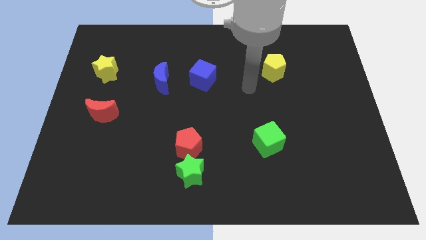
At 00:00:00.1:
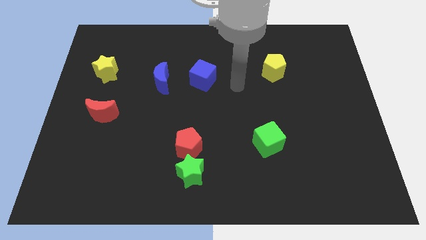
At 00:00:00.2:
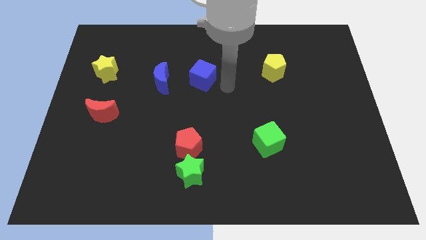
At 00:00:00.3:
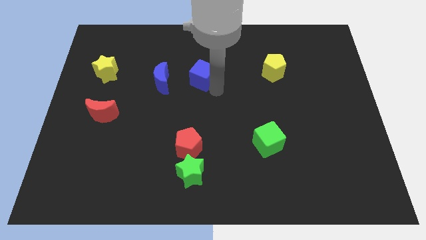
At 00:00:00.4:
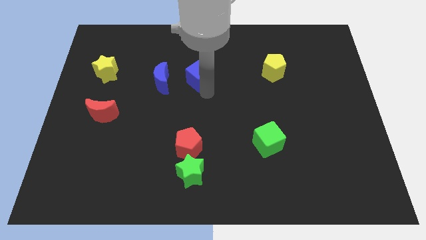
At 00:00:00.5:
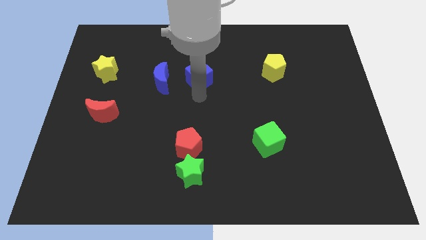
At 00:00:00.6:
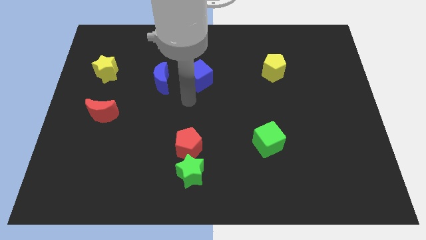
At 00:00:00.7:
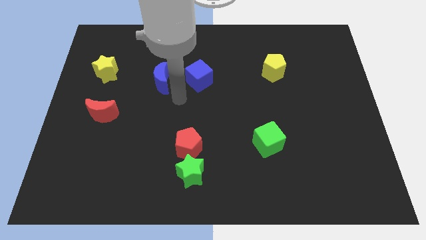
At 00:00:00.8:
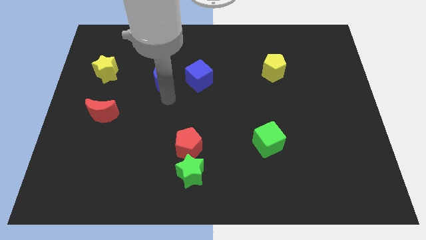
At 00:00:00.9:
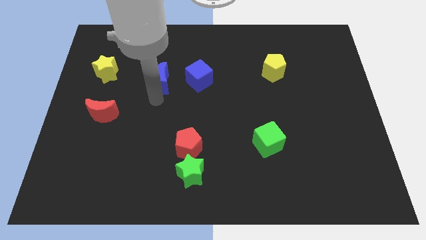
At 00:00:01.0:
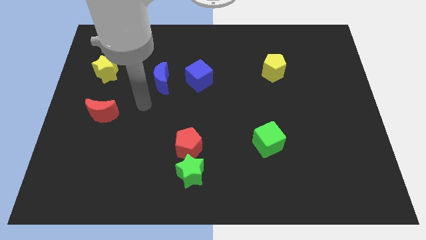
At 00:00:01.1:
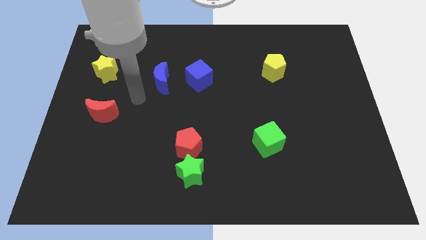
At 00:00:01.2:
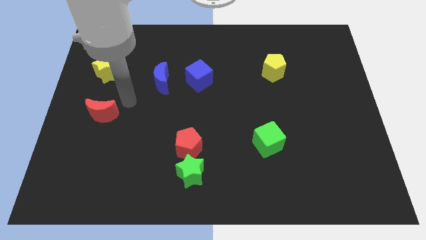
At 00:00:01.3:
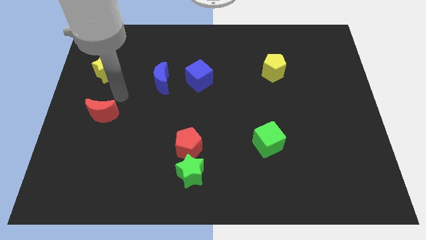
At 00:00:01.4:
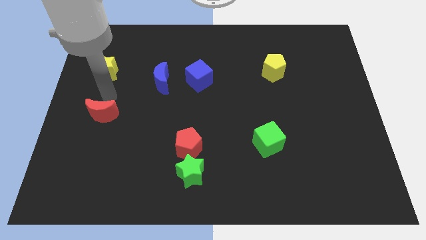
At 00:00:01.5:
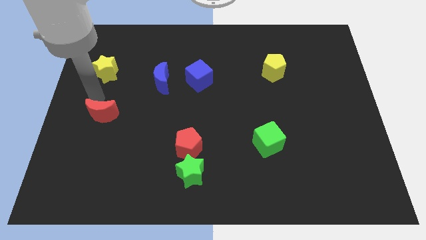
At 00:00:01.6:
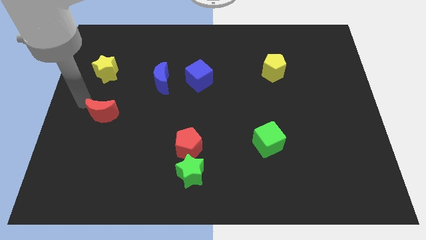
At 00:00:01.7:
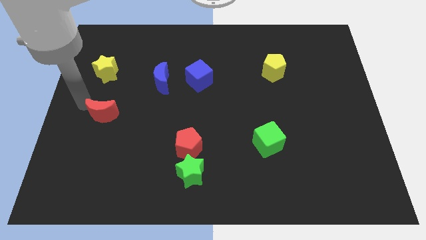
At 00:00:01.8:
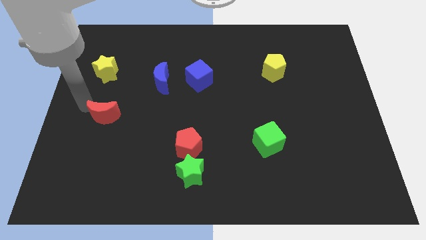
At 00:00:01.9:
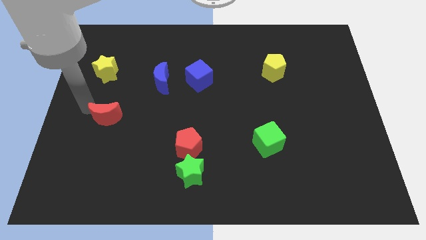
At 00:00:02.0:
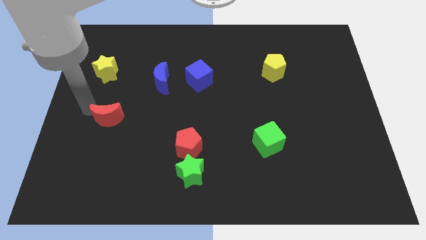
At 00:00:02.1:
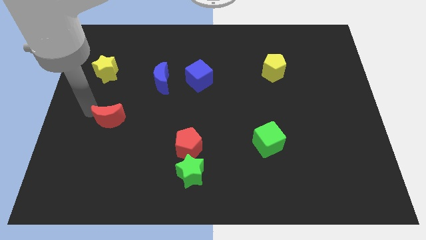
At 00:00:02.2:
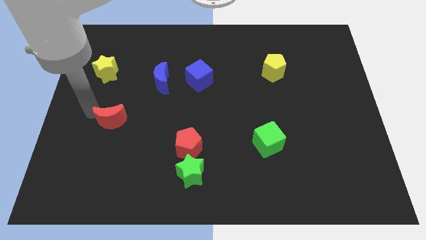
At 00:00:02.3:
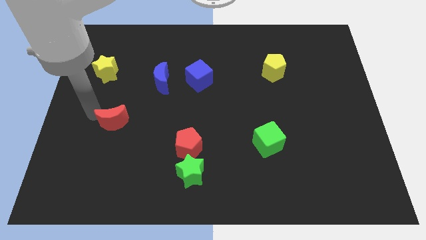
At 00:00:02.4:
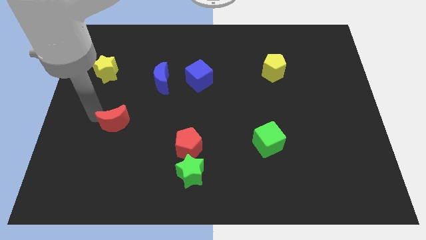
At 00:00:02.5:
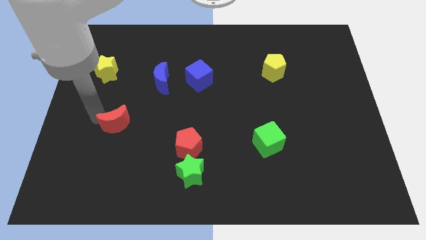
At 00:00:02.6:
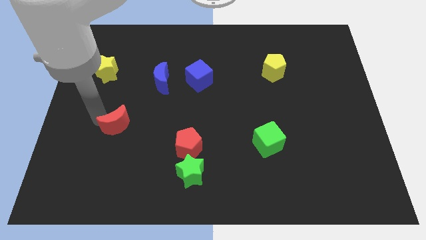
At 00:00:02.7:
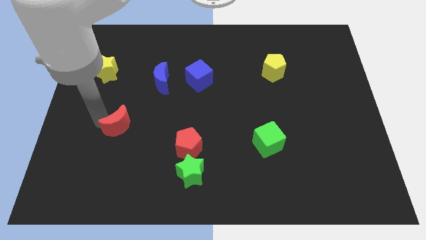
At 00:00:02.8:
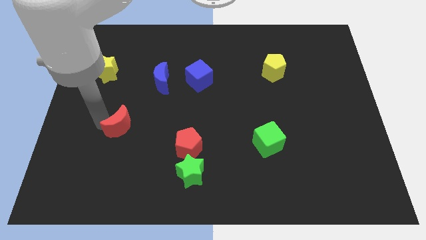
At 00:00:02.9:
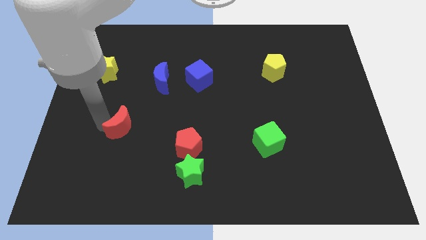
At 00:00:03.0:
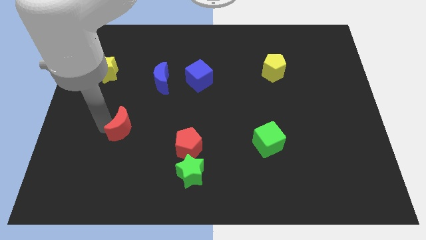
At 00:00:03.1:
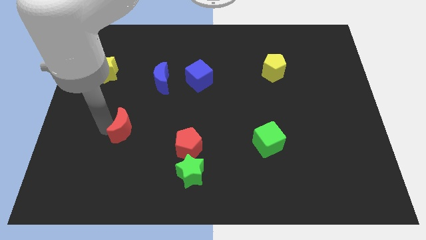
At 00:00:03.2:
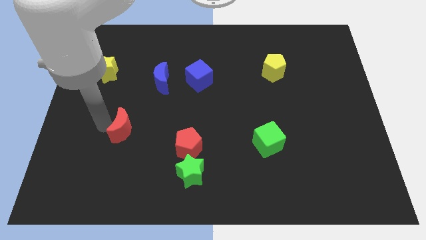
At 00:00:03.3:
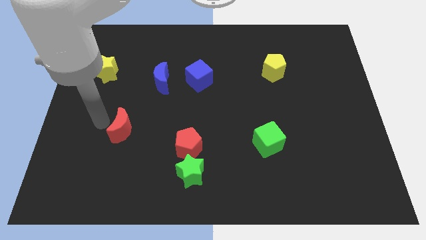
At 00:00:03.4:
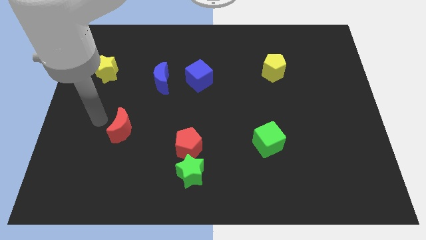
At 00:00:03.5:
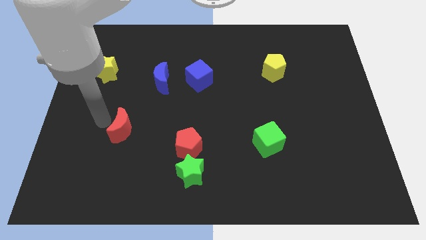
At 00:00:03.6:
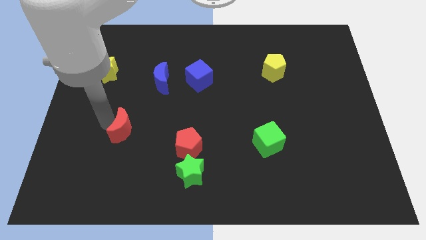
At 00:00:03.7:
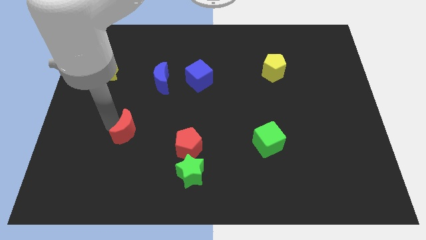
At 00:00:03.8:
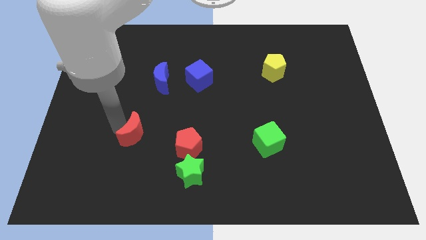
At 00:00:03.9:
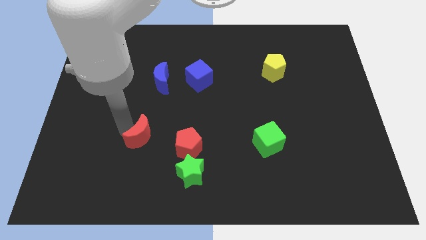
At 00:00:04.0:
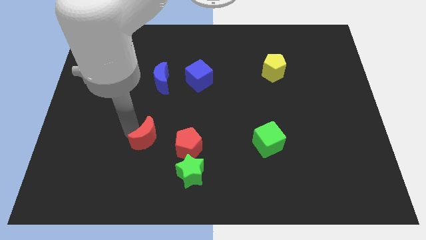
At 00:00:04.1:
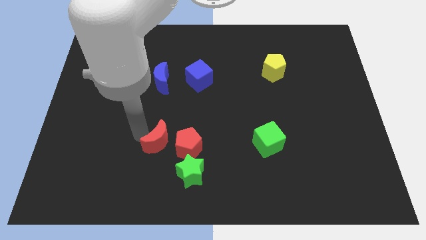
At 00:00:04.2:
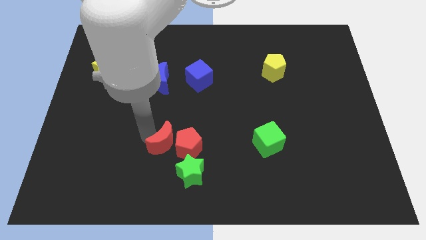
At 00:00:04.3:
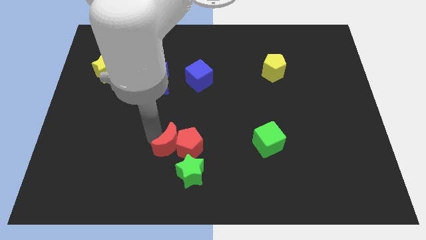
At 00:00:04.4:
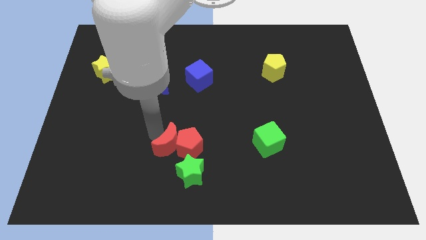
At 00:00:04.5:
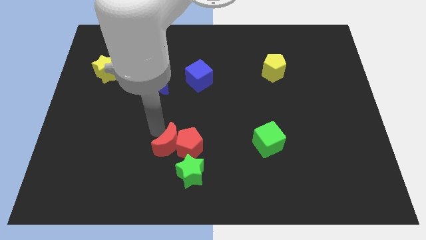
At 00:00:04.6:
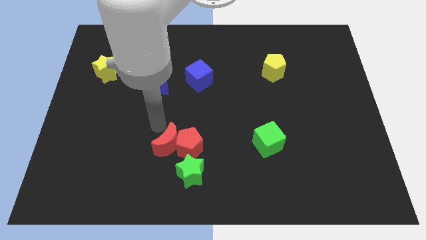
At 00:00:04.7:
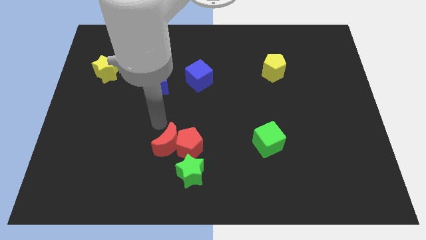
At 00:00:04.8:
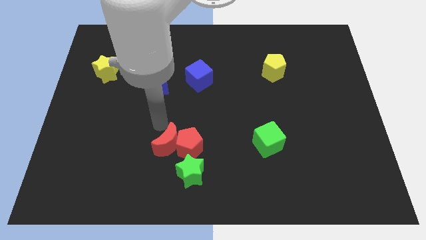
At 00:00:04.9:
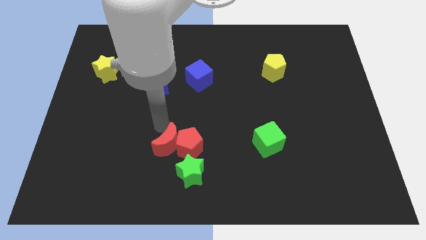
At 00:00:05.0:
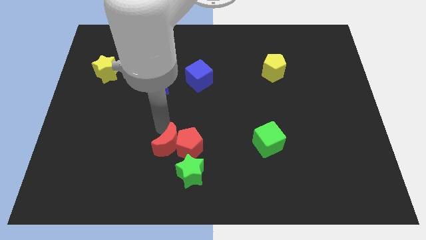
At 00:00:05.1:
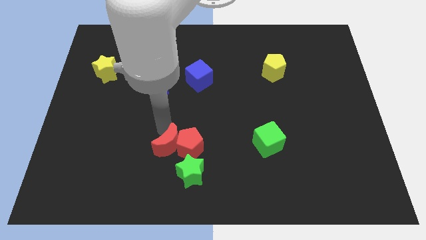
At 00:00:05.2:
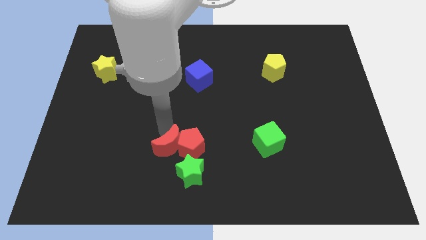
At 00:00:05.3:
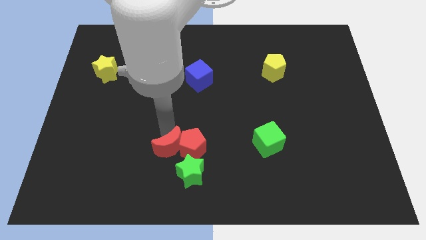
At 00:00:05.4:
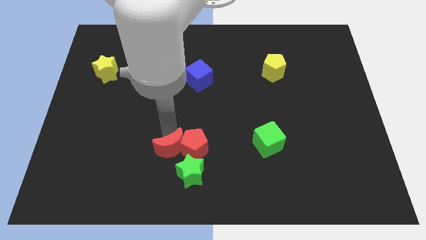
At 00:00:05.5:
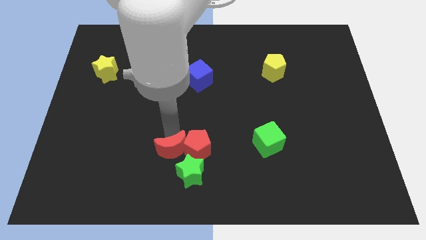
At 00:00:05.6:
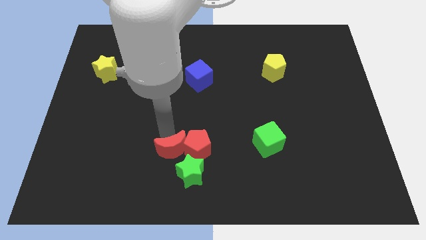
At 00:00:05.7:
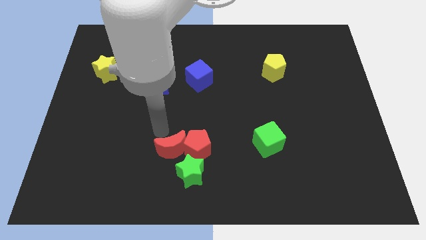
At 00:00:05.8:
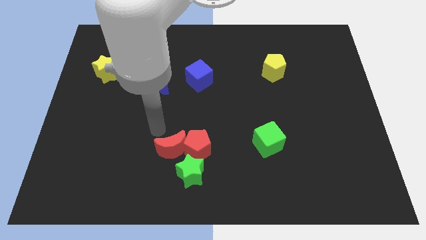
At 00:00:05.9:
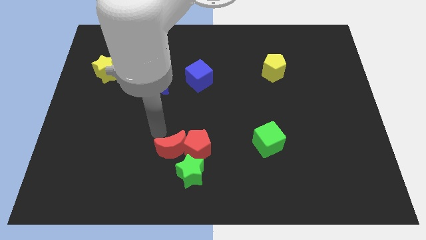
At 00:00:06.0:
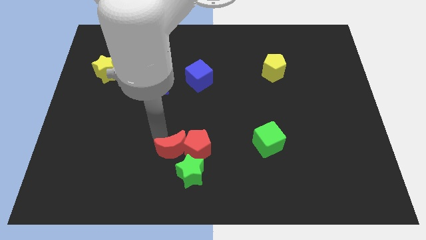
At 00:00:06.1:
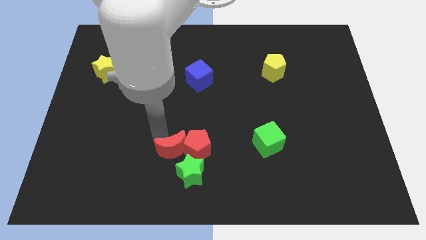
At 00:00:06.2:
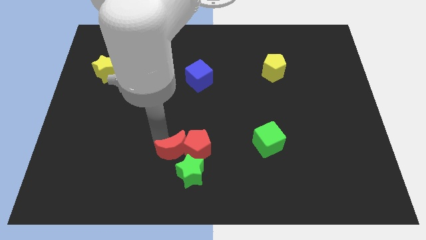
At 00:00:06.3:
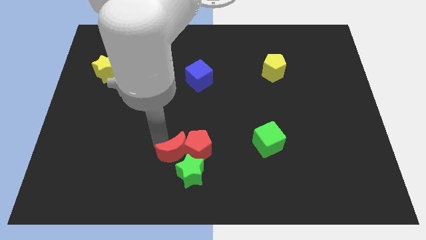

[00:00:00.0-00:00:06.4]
move the red moon next to the green star

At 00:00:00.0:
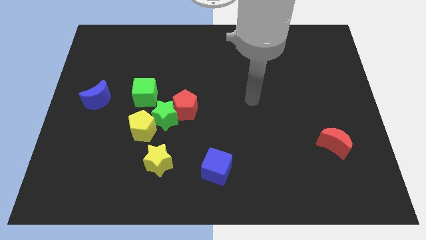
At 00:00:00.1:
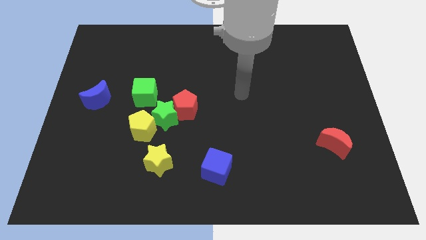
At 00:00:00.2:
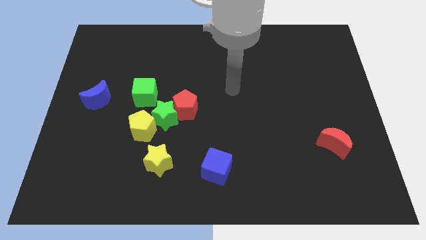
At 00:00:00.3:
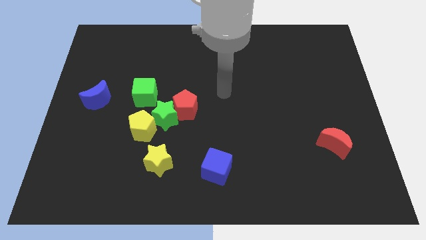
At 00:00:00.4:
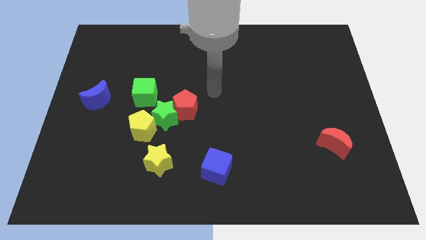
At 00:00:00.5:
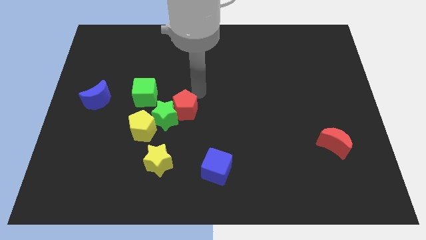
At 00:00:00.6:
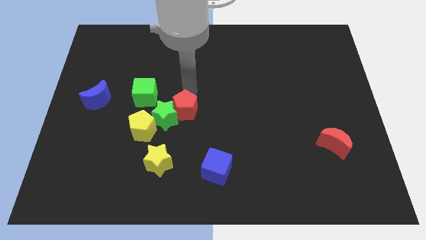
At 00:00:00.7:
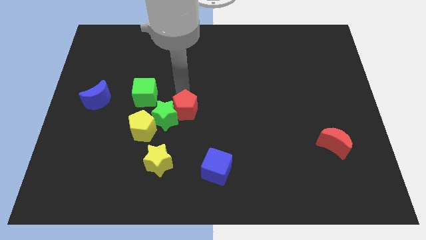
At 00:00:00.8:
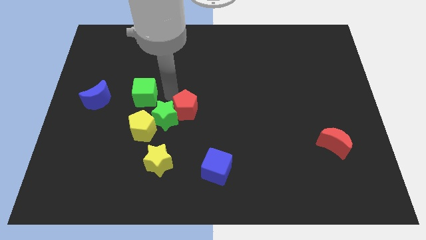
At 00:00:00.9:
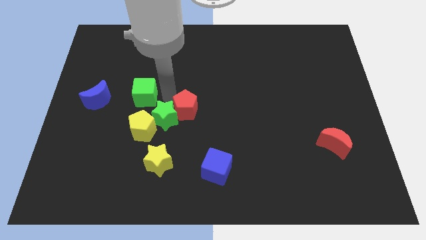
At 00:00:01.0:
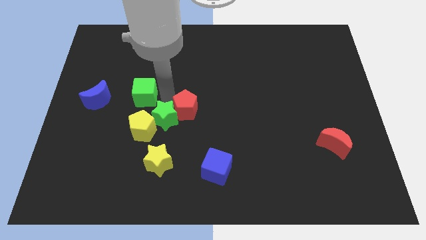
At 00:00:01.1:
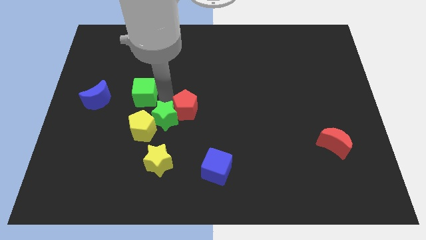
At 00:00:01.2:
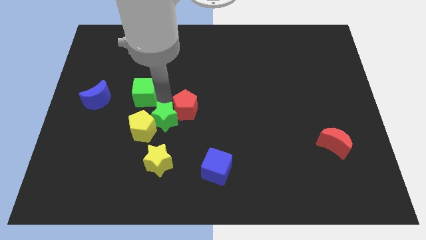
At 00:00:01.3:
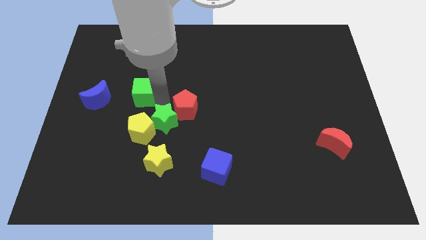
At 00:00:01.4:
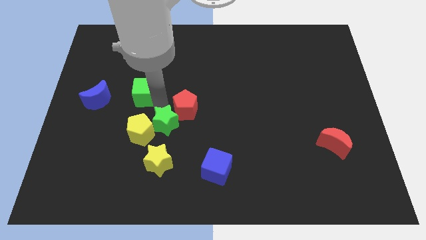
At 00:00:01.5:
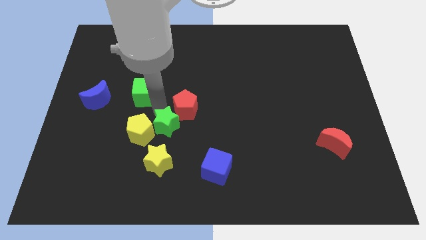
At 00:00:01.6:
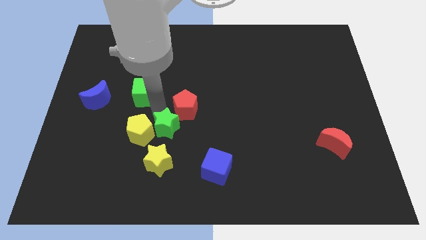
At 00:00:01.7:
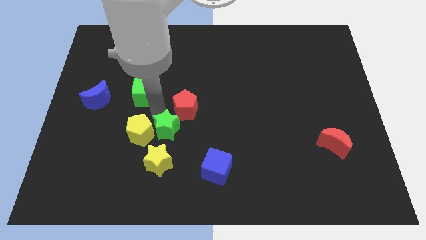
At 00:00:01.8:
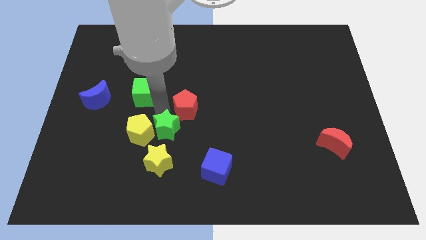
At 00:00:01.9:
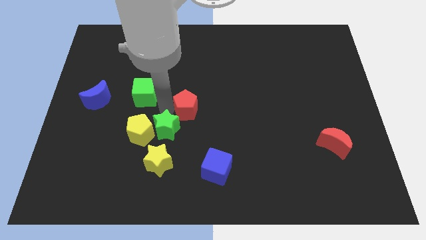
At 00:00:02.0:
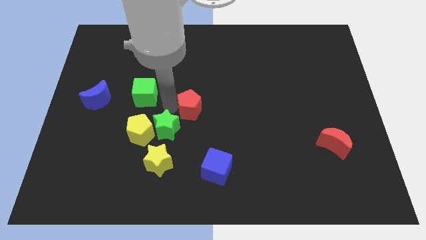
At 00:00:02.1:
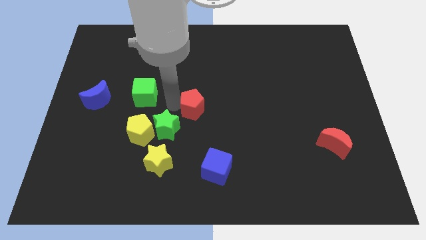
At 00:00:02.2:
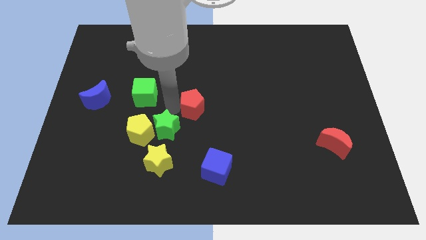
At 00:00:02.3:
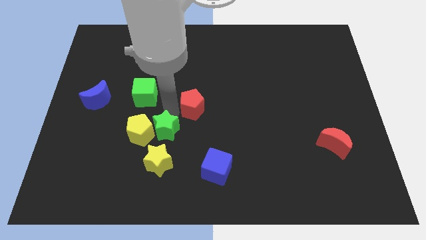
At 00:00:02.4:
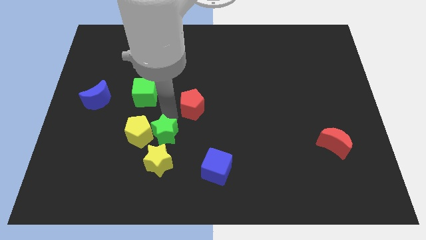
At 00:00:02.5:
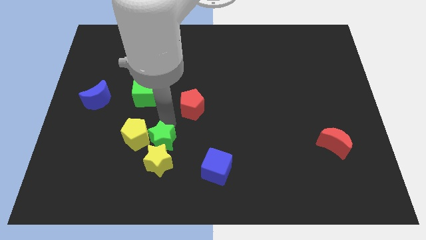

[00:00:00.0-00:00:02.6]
put the green star to the yellow star
